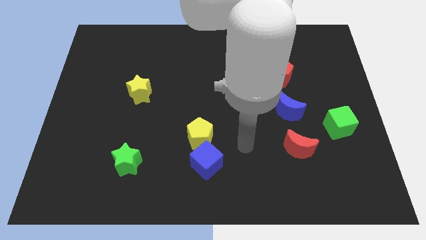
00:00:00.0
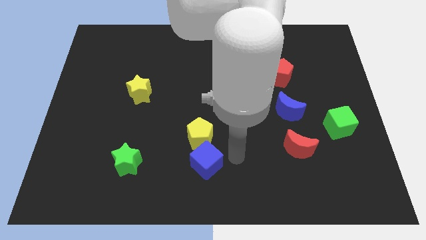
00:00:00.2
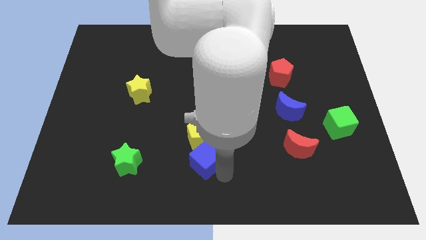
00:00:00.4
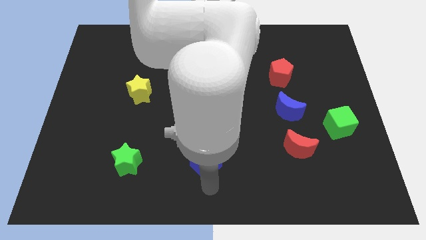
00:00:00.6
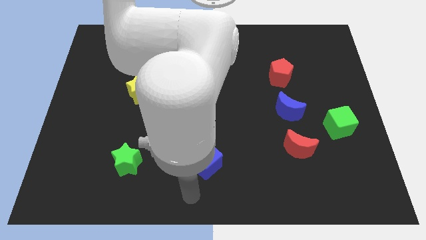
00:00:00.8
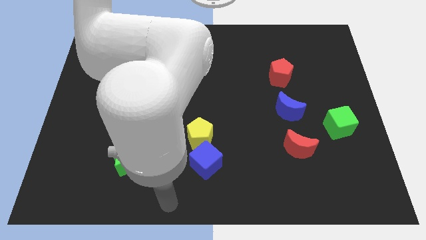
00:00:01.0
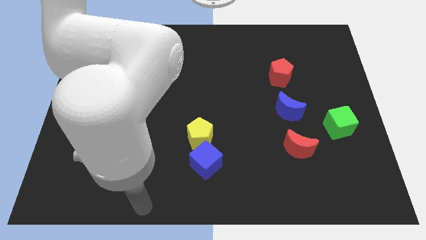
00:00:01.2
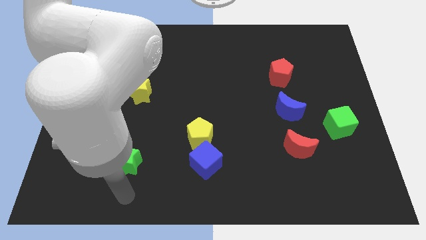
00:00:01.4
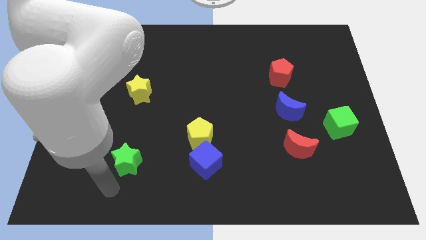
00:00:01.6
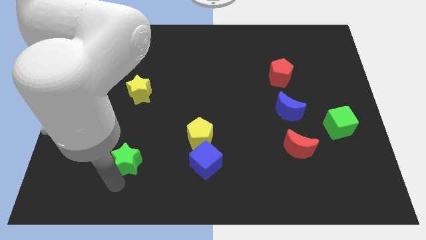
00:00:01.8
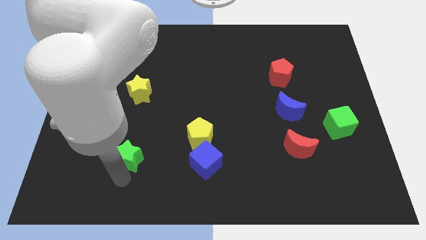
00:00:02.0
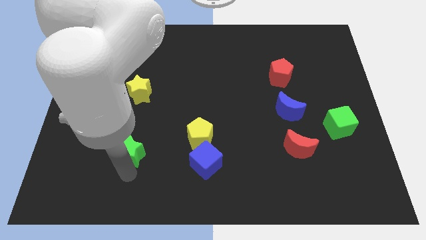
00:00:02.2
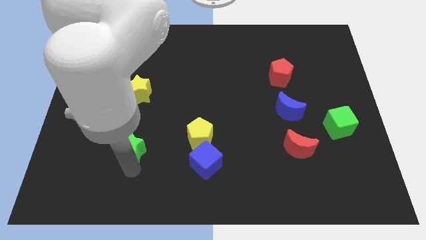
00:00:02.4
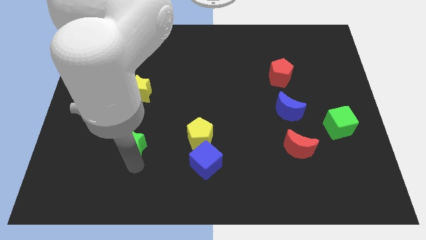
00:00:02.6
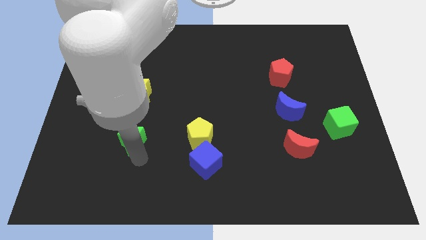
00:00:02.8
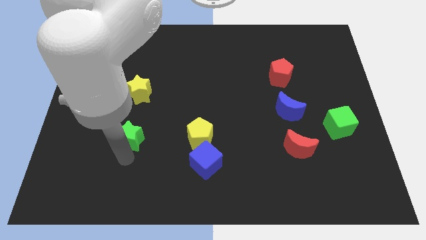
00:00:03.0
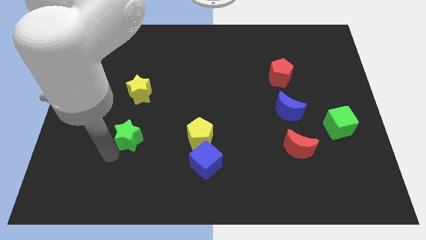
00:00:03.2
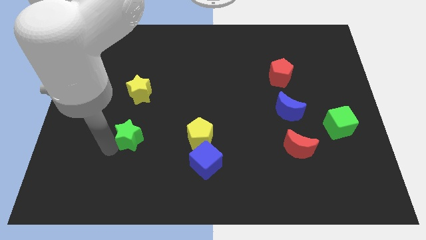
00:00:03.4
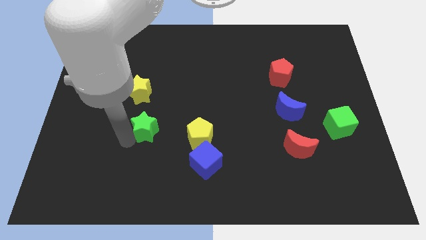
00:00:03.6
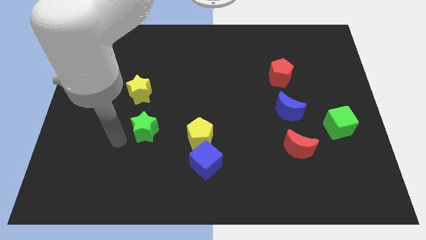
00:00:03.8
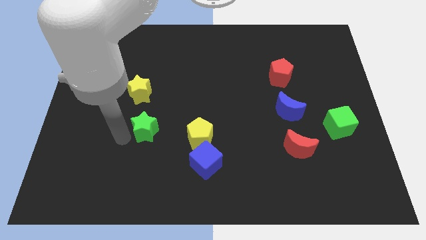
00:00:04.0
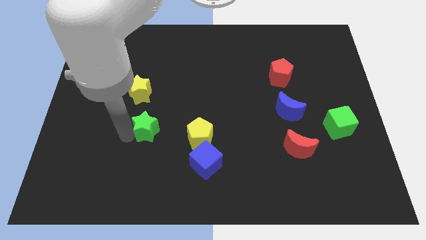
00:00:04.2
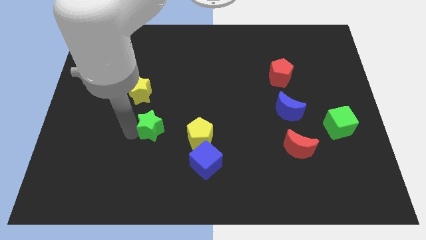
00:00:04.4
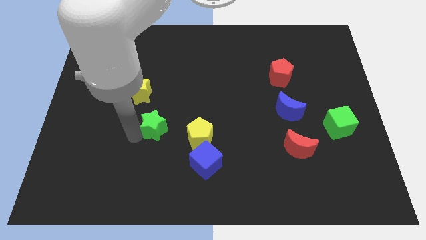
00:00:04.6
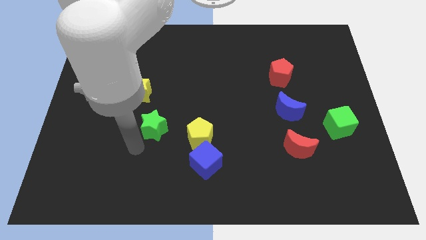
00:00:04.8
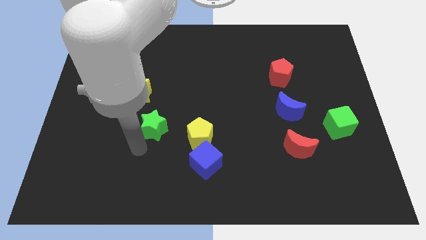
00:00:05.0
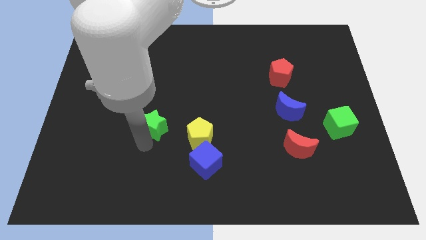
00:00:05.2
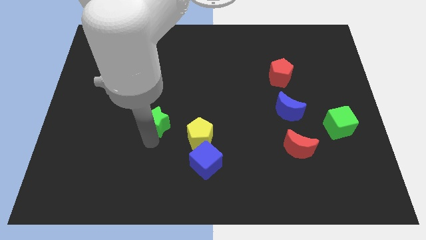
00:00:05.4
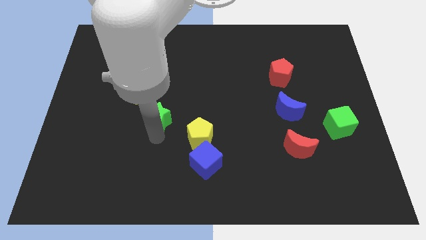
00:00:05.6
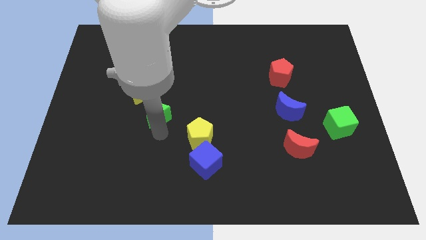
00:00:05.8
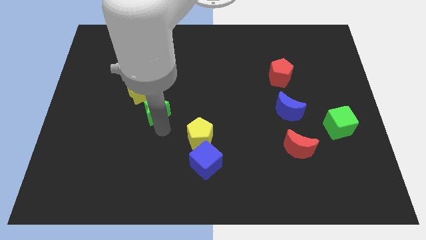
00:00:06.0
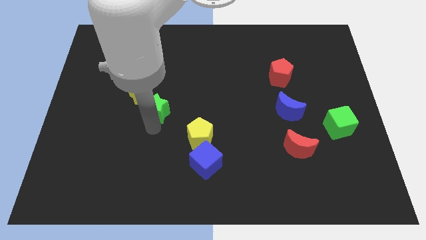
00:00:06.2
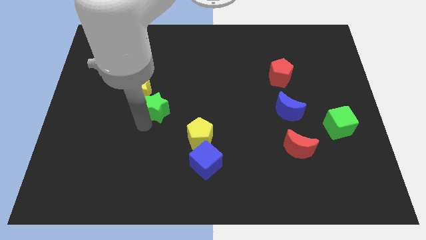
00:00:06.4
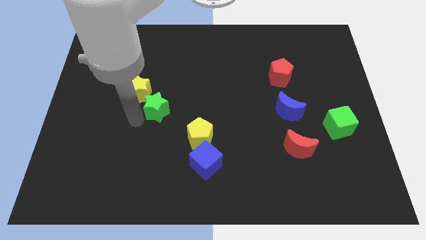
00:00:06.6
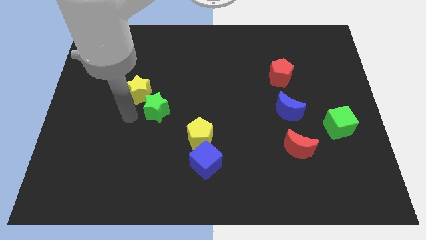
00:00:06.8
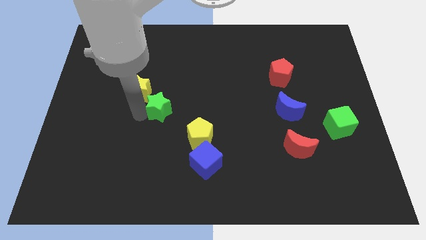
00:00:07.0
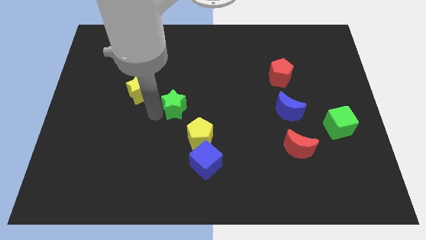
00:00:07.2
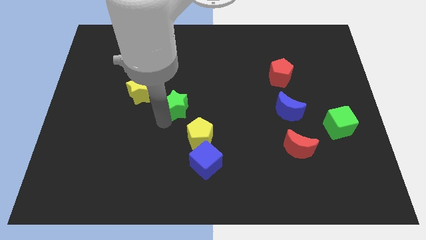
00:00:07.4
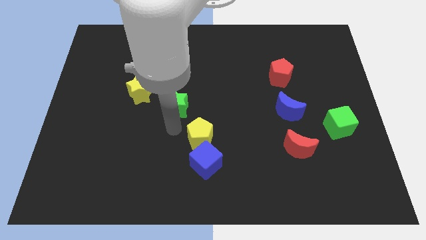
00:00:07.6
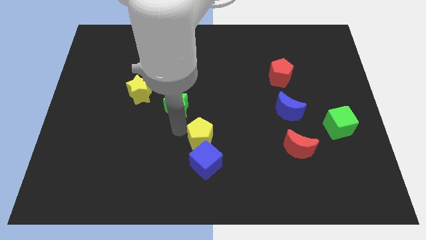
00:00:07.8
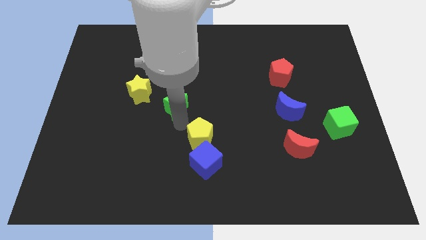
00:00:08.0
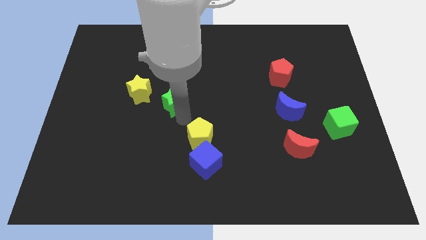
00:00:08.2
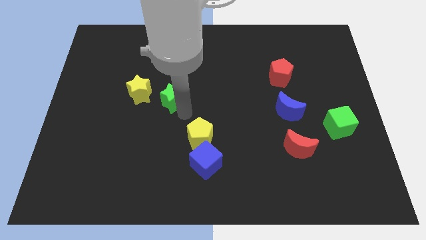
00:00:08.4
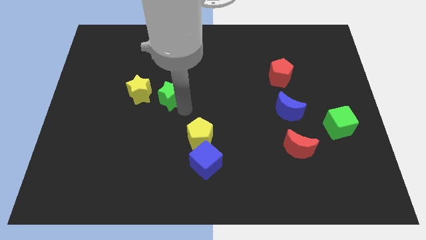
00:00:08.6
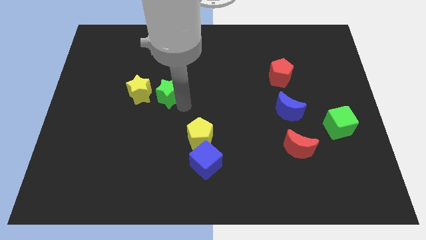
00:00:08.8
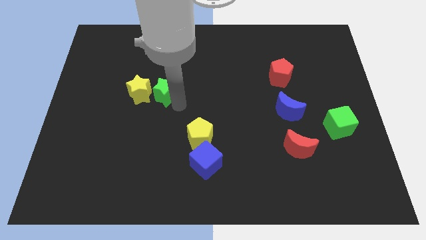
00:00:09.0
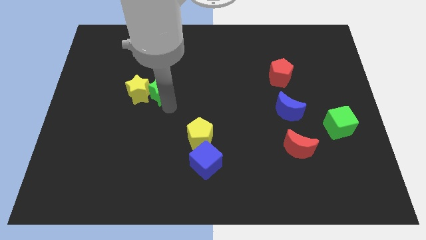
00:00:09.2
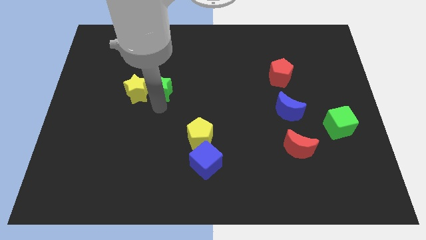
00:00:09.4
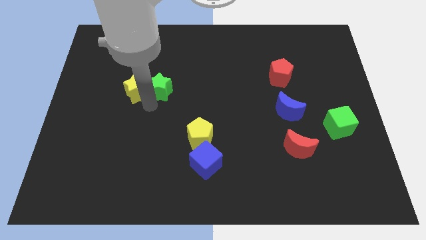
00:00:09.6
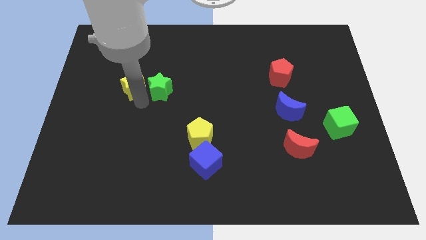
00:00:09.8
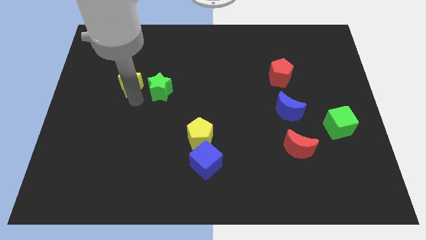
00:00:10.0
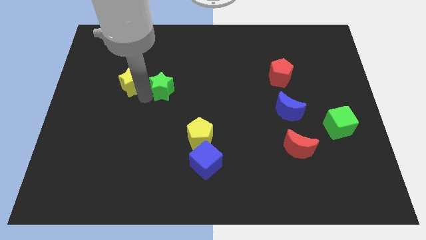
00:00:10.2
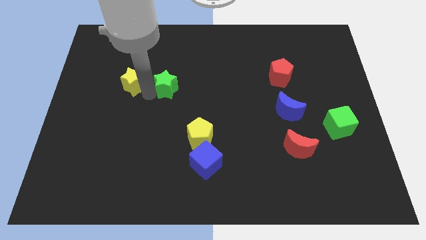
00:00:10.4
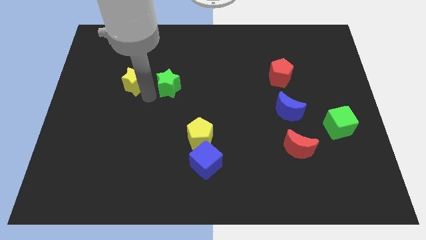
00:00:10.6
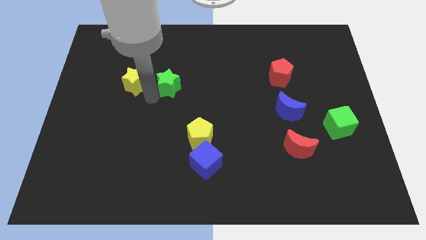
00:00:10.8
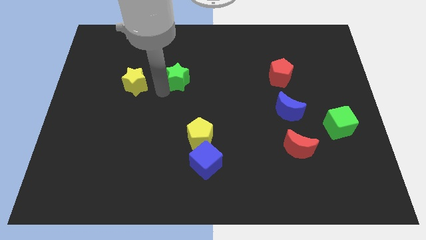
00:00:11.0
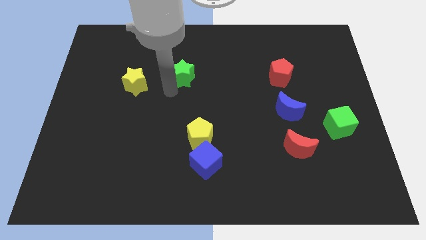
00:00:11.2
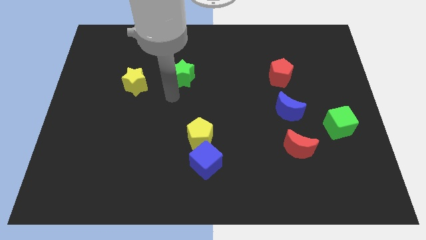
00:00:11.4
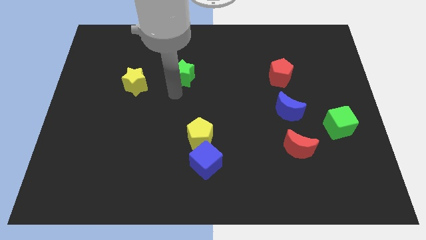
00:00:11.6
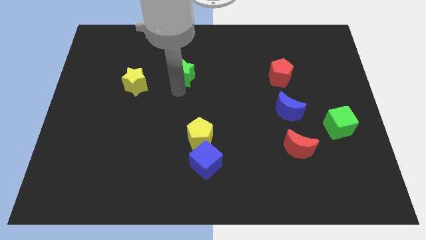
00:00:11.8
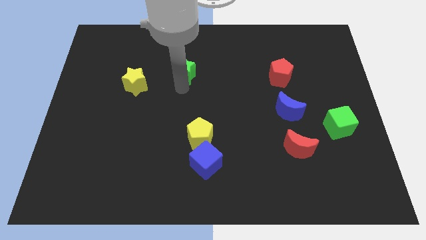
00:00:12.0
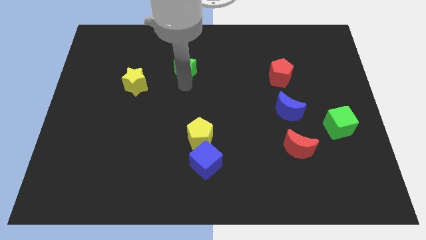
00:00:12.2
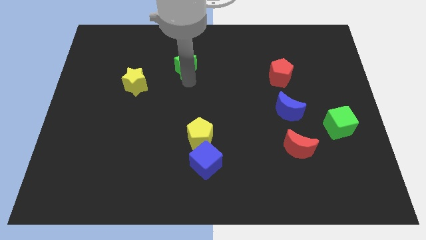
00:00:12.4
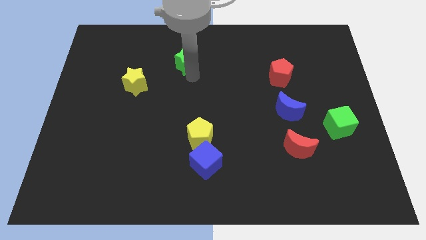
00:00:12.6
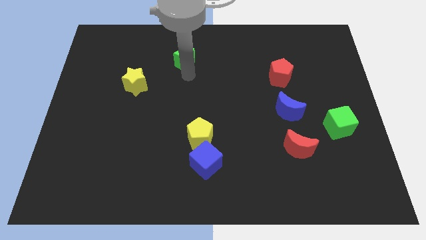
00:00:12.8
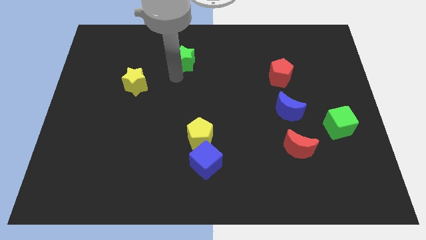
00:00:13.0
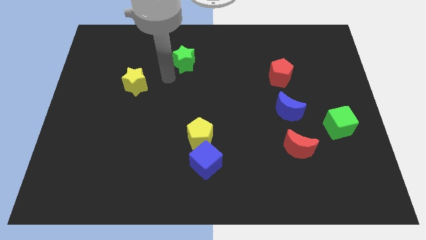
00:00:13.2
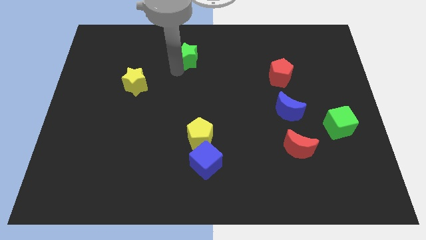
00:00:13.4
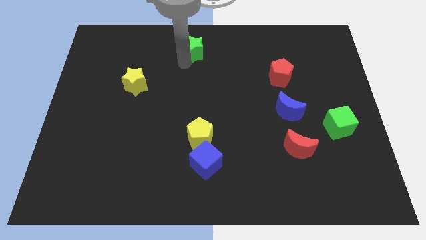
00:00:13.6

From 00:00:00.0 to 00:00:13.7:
move the green star to the towards your base

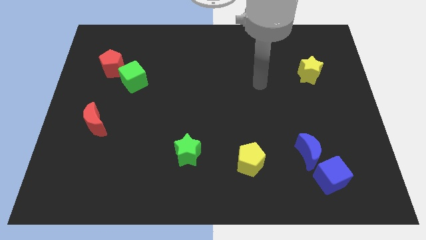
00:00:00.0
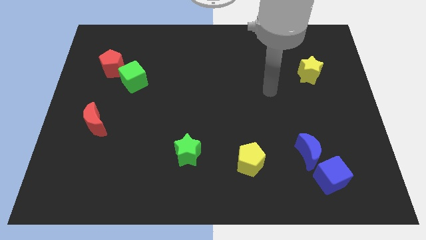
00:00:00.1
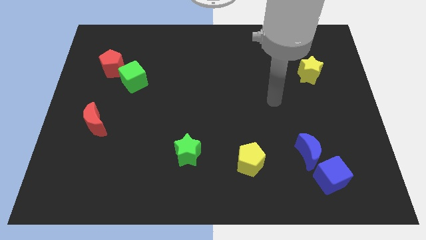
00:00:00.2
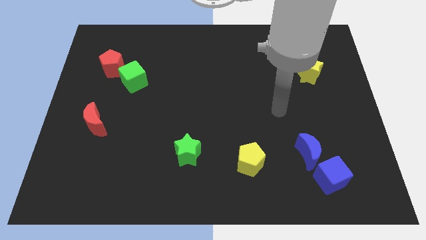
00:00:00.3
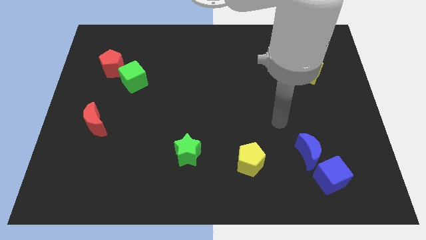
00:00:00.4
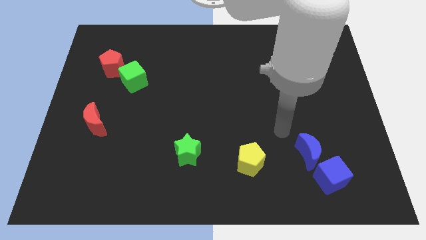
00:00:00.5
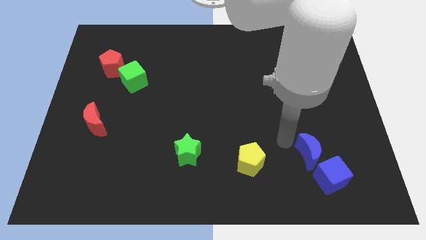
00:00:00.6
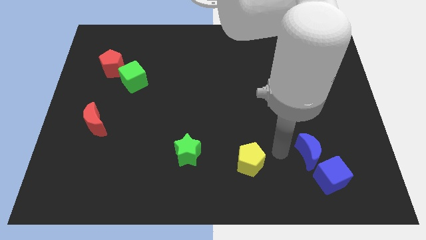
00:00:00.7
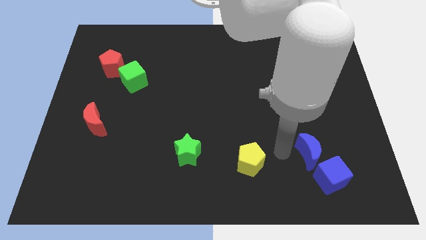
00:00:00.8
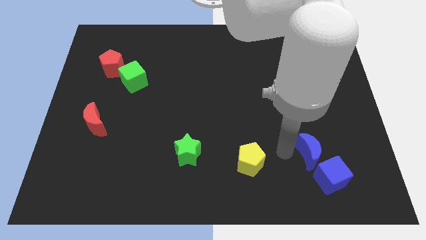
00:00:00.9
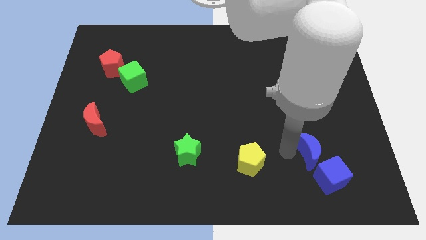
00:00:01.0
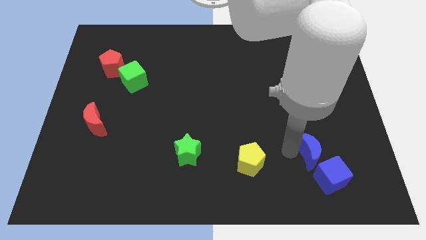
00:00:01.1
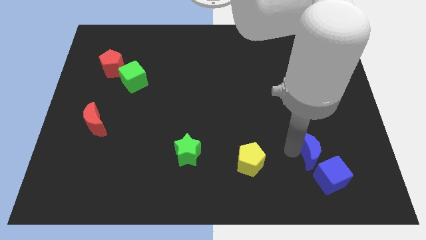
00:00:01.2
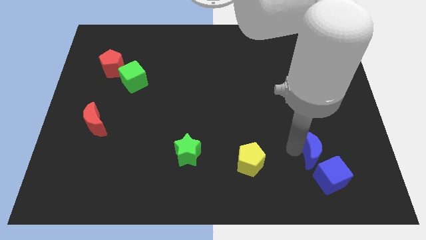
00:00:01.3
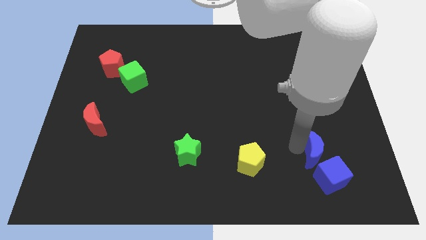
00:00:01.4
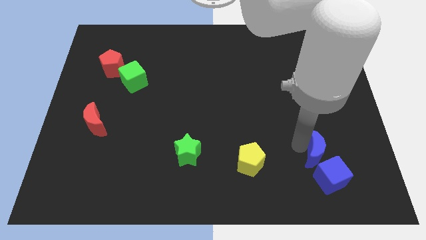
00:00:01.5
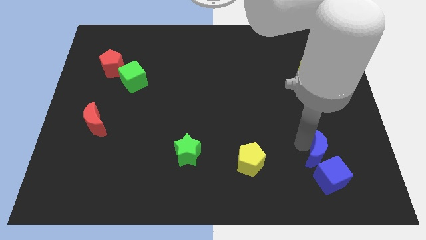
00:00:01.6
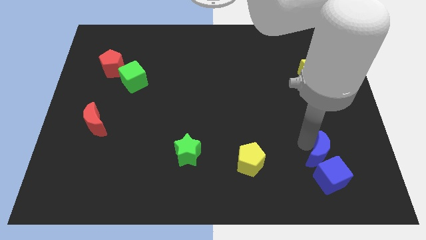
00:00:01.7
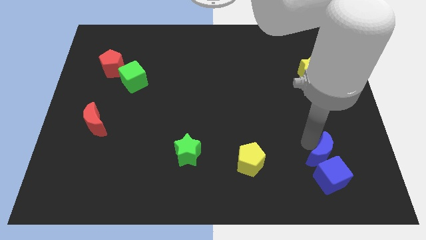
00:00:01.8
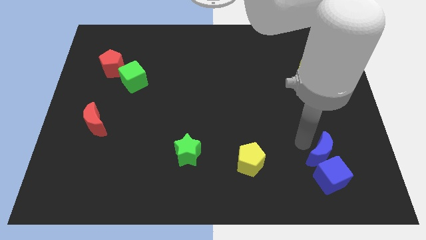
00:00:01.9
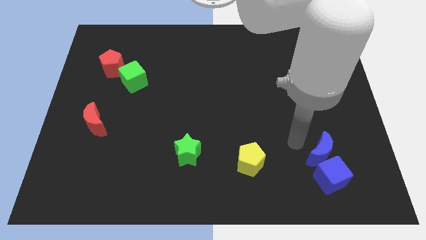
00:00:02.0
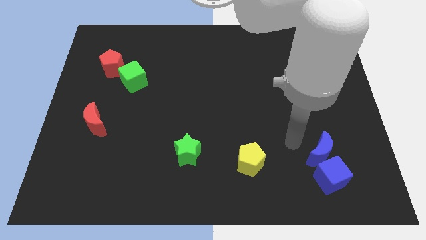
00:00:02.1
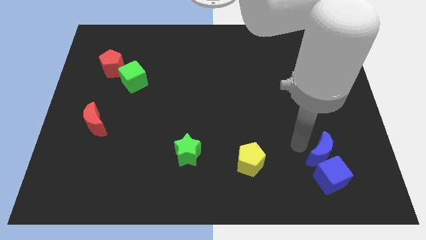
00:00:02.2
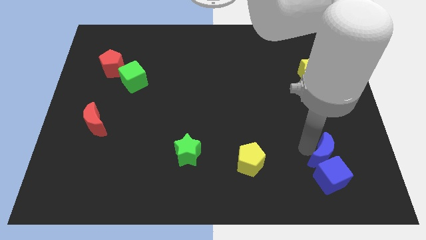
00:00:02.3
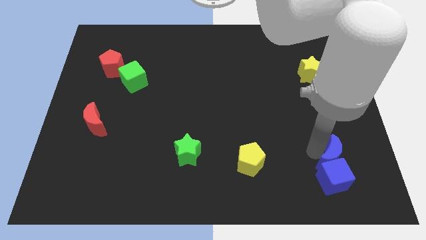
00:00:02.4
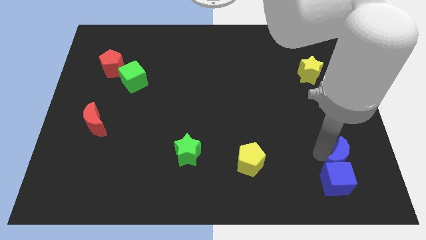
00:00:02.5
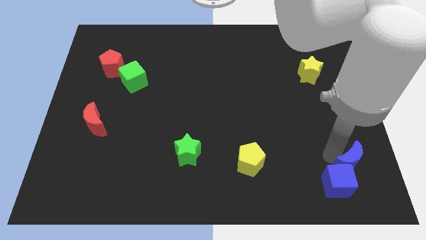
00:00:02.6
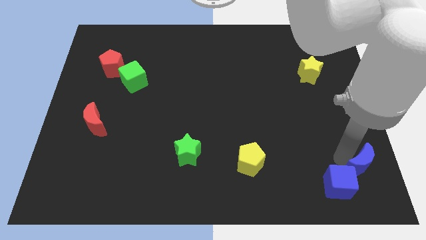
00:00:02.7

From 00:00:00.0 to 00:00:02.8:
put the blue moon to the lower right corner
